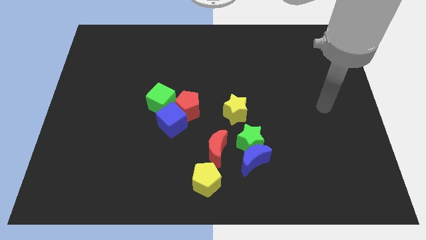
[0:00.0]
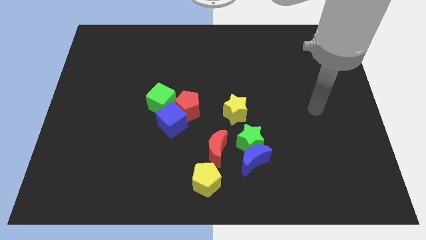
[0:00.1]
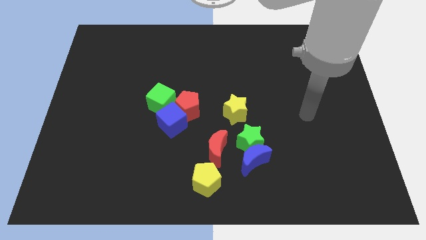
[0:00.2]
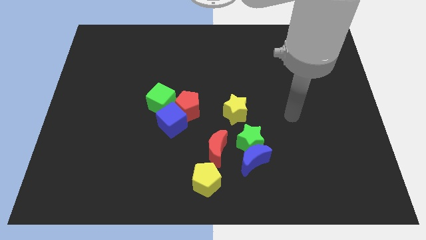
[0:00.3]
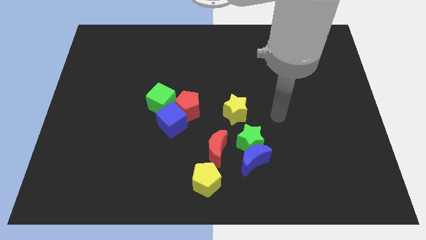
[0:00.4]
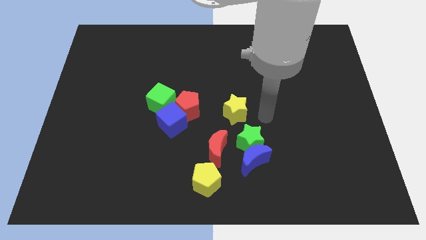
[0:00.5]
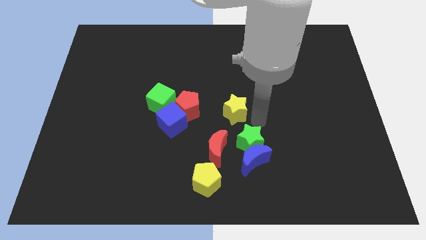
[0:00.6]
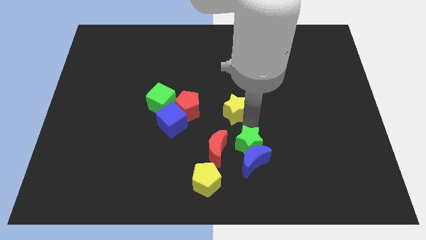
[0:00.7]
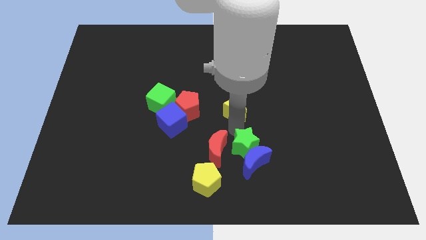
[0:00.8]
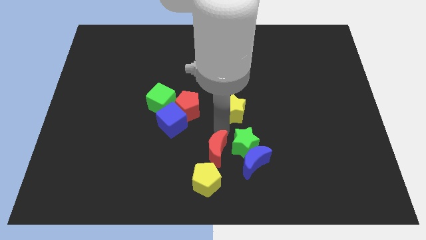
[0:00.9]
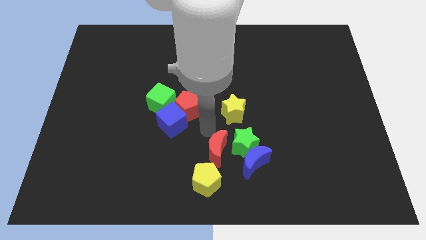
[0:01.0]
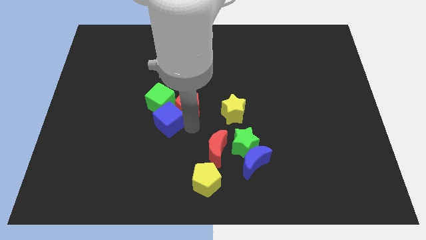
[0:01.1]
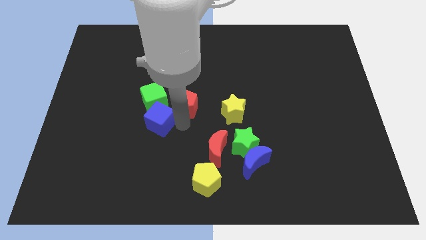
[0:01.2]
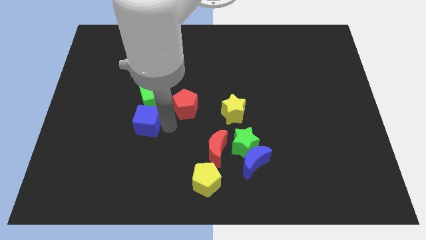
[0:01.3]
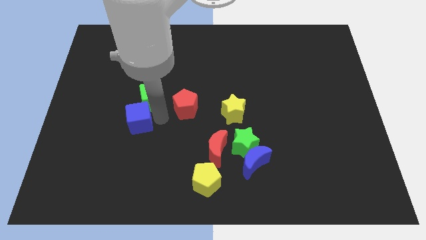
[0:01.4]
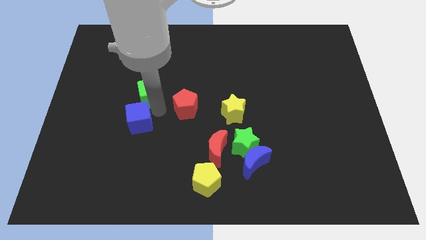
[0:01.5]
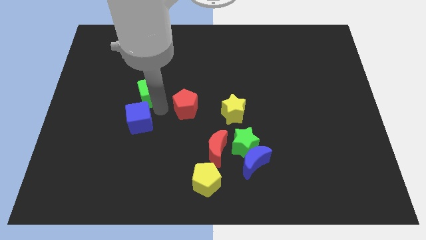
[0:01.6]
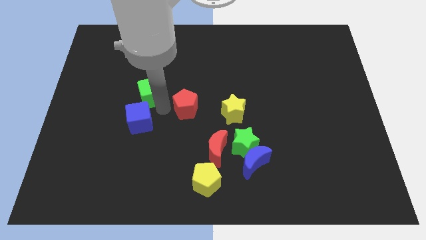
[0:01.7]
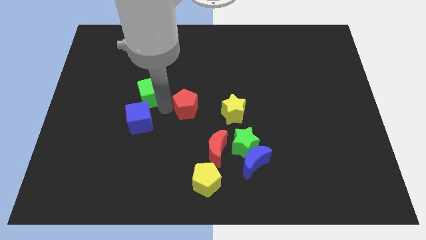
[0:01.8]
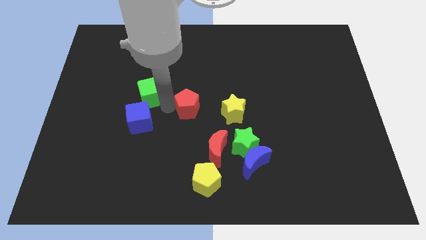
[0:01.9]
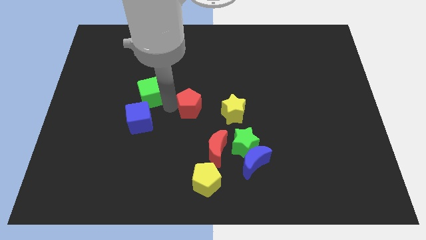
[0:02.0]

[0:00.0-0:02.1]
pull the red pentagon apart from the blue cube and green cube

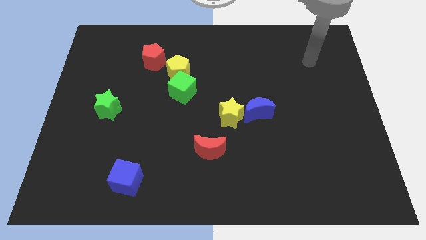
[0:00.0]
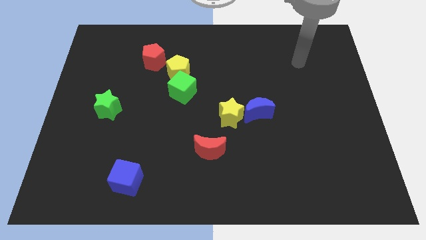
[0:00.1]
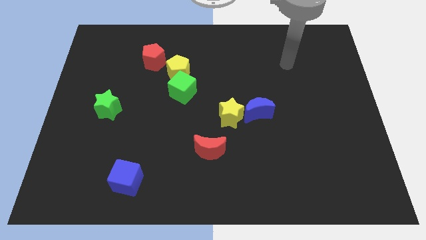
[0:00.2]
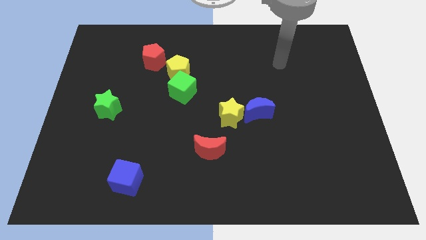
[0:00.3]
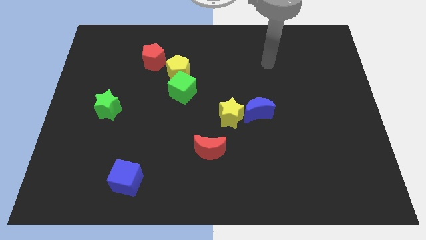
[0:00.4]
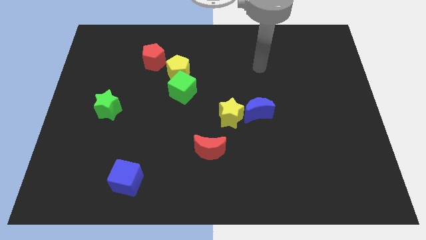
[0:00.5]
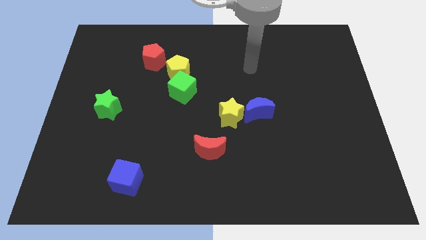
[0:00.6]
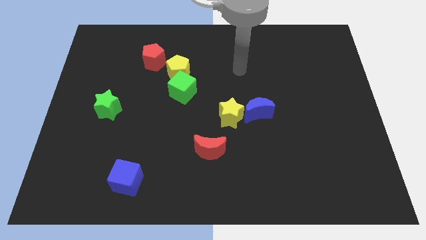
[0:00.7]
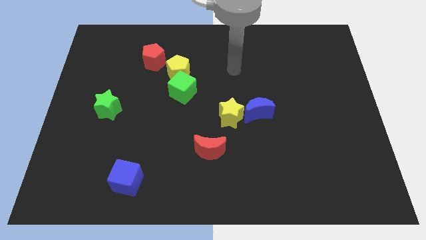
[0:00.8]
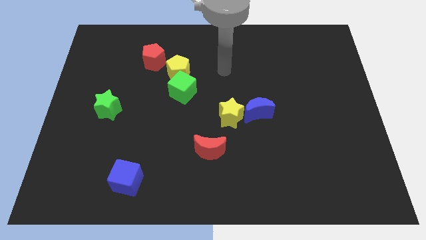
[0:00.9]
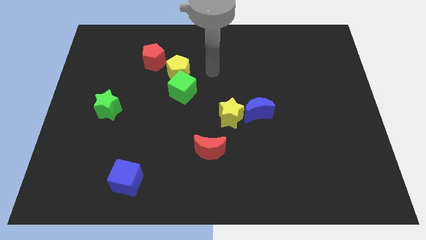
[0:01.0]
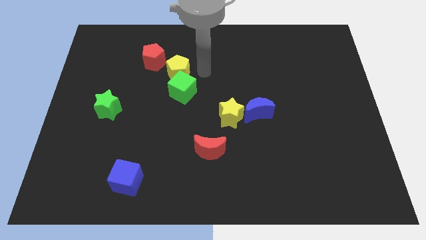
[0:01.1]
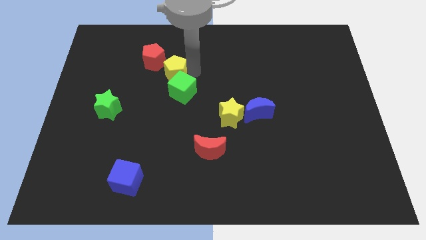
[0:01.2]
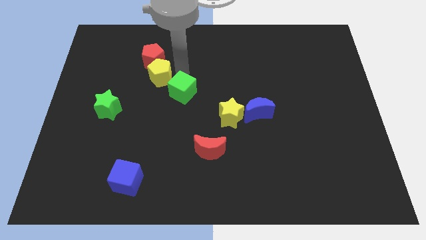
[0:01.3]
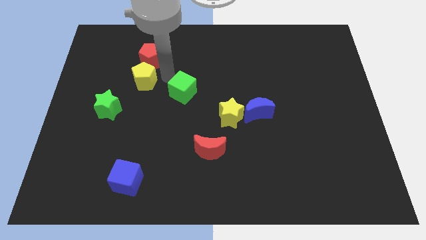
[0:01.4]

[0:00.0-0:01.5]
pull the green cube apart from the yellow pentagon

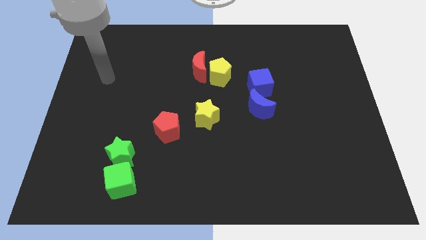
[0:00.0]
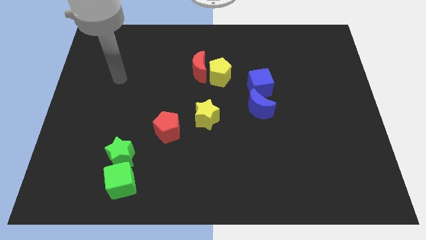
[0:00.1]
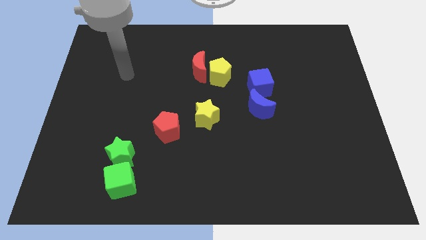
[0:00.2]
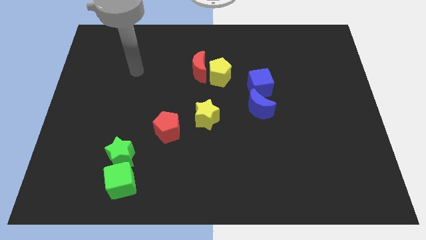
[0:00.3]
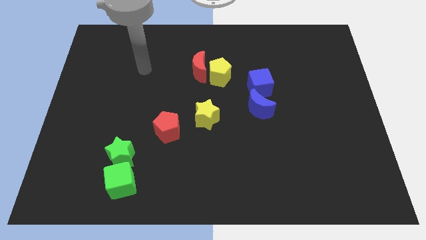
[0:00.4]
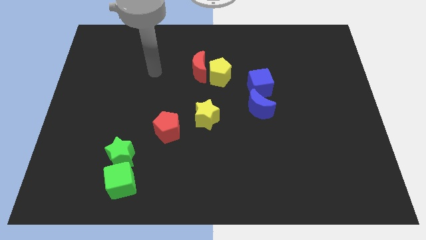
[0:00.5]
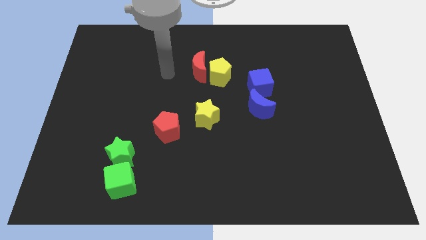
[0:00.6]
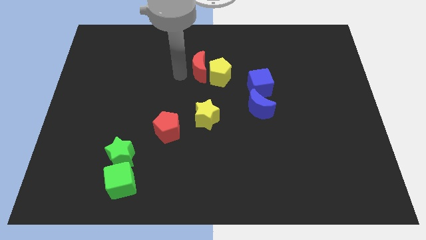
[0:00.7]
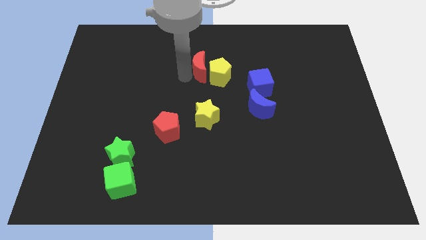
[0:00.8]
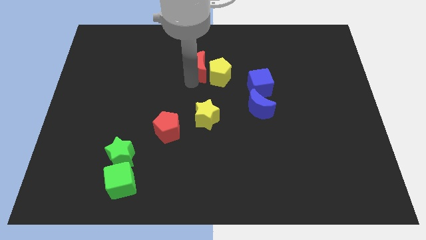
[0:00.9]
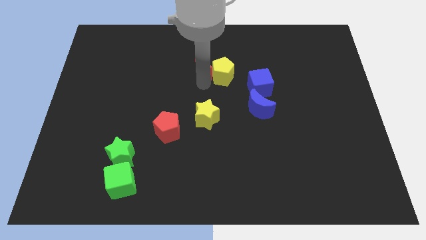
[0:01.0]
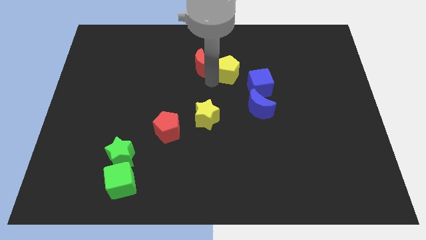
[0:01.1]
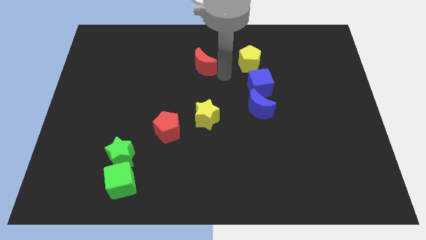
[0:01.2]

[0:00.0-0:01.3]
move the red moon away from the yellow pentagon

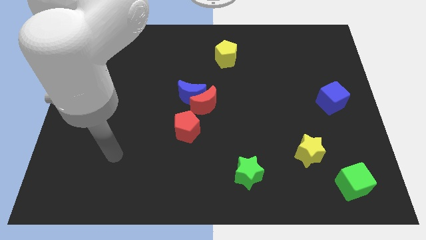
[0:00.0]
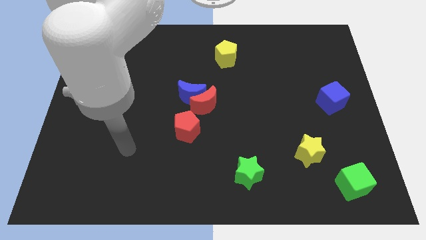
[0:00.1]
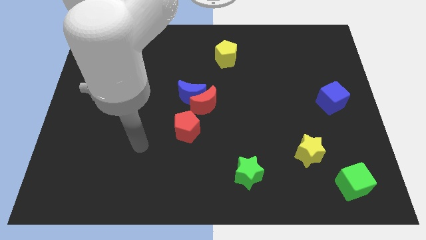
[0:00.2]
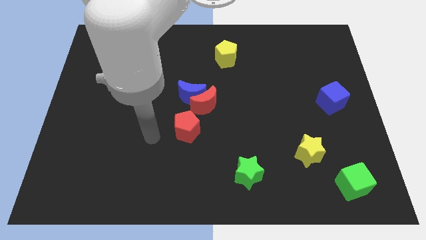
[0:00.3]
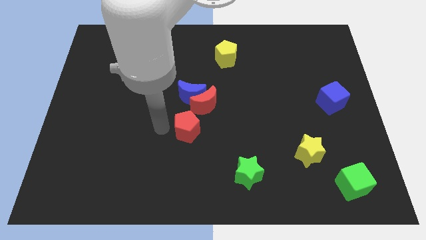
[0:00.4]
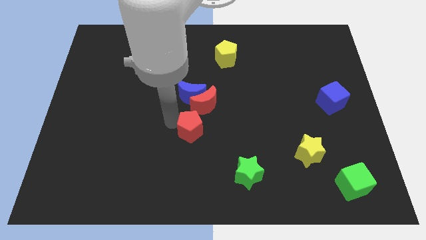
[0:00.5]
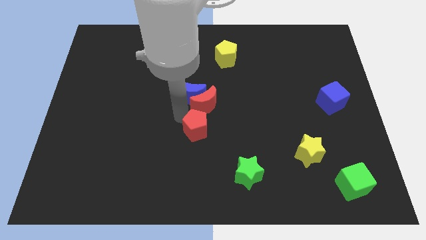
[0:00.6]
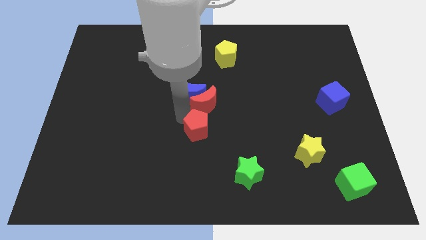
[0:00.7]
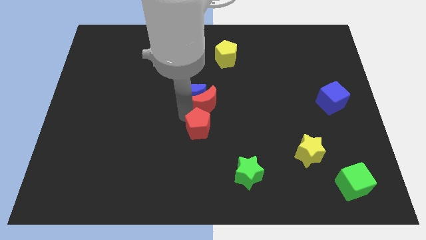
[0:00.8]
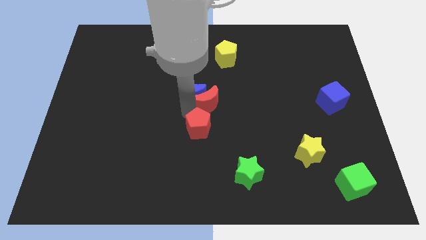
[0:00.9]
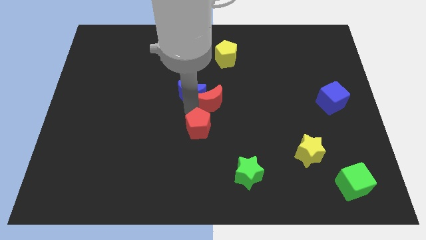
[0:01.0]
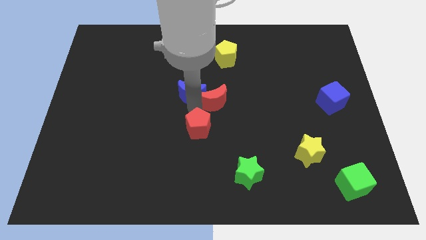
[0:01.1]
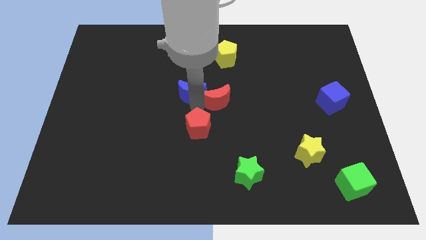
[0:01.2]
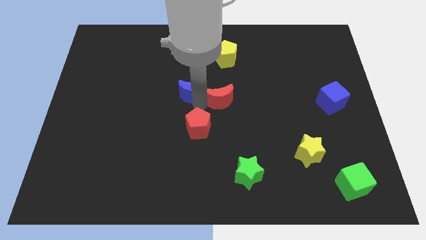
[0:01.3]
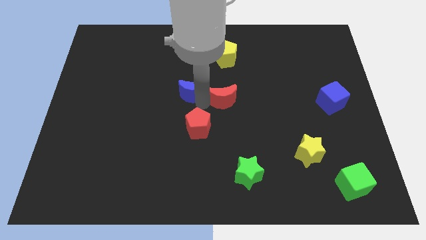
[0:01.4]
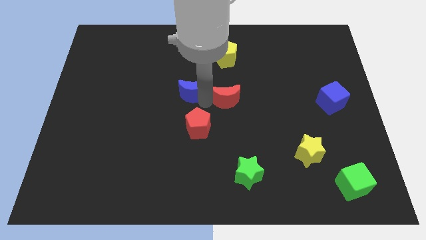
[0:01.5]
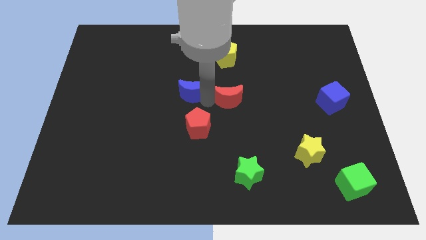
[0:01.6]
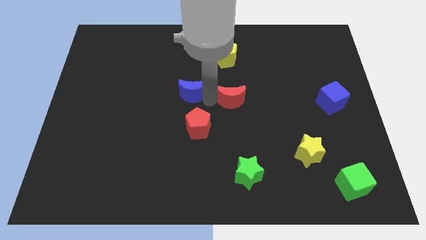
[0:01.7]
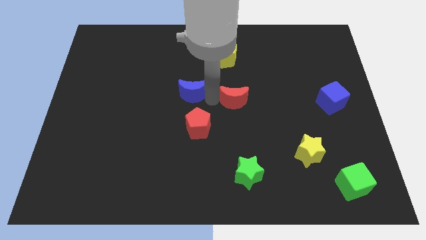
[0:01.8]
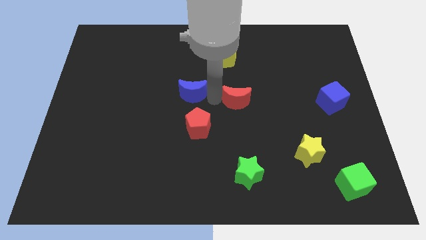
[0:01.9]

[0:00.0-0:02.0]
pull the red moon apart from the blue moon and red pentagon

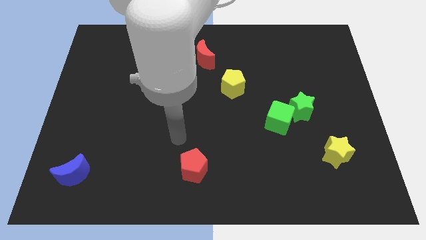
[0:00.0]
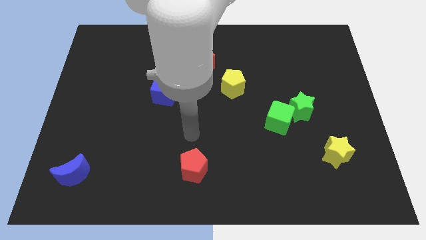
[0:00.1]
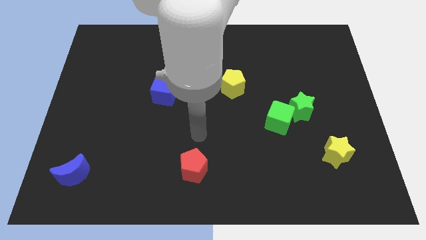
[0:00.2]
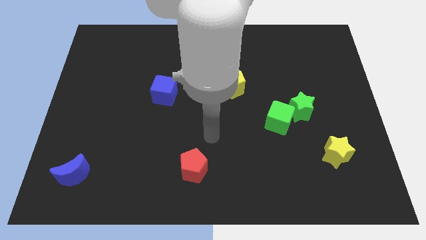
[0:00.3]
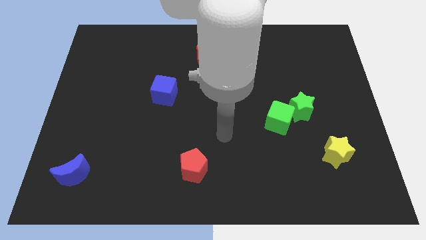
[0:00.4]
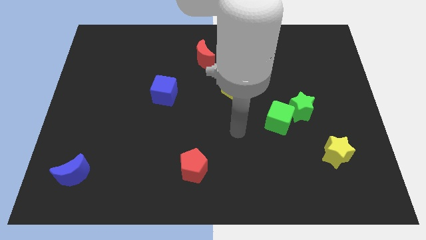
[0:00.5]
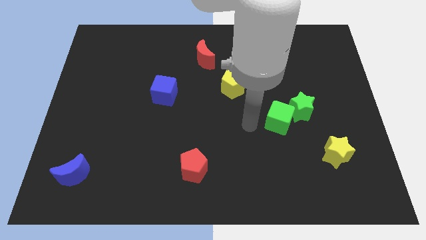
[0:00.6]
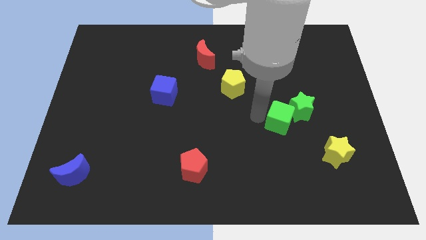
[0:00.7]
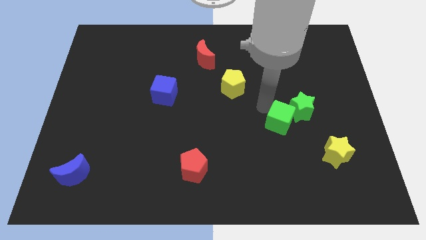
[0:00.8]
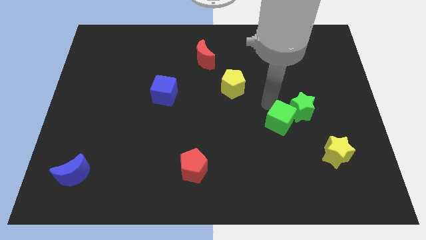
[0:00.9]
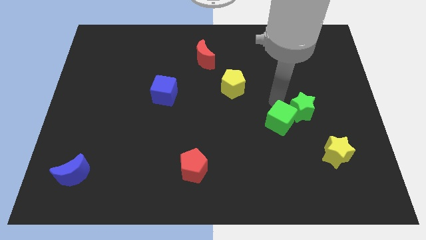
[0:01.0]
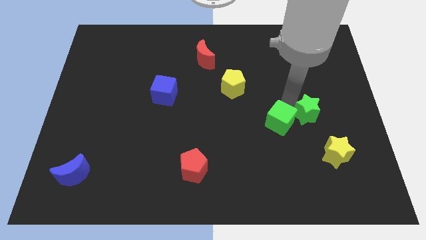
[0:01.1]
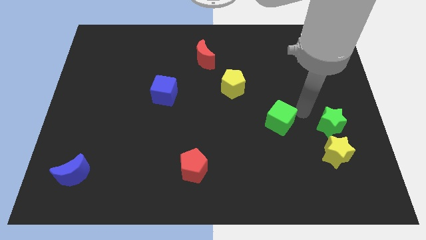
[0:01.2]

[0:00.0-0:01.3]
pull the green cube apart from the green star

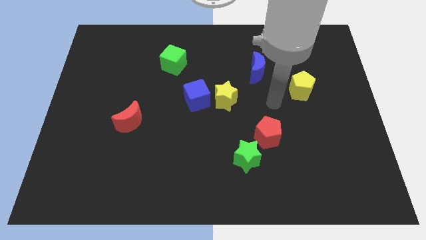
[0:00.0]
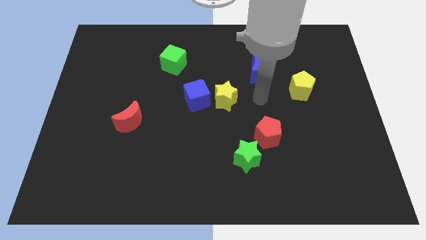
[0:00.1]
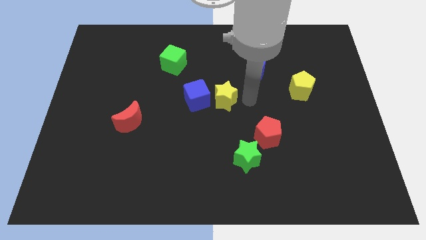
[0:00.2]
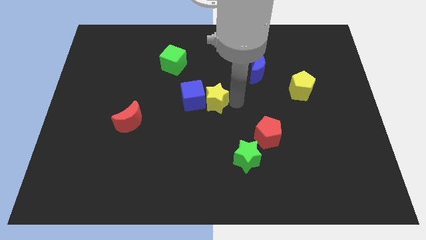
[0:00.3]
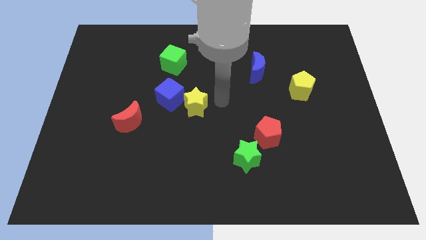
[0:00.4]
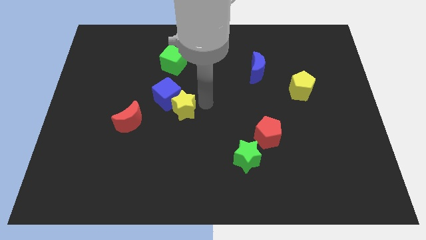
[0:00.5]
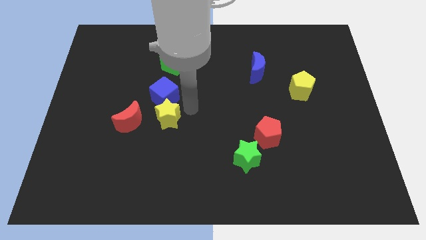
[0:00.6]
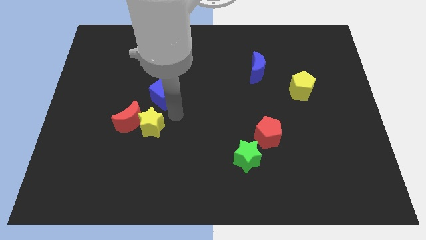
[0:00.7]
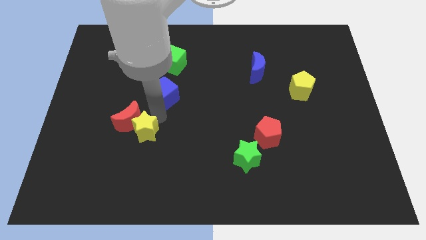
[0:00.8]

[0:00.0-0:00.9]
move the blue cube away from the yellow star

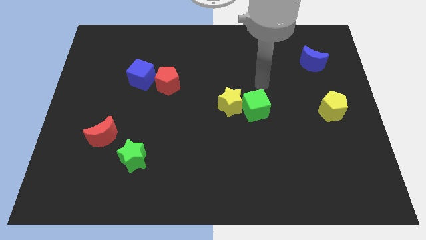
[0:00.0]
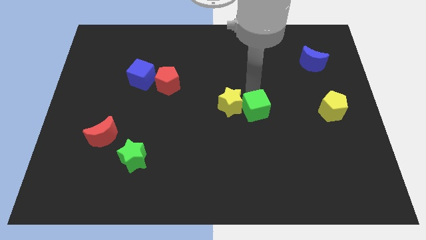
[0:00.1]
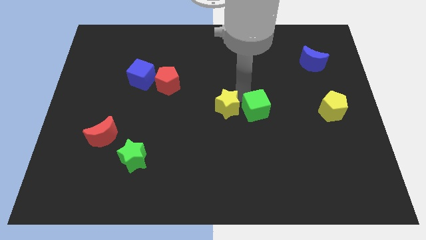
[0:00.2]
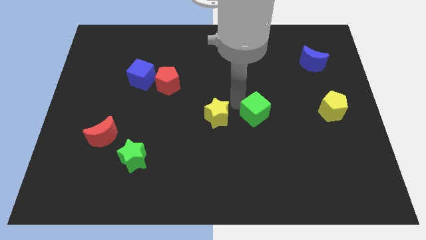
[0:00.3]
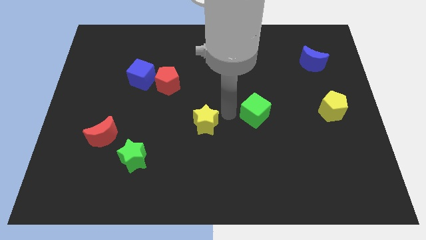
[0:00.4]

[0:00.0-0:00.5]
move the green cube away from the yellow star
